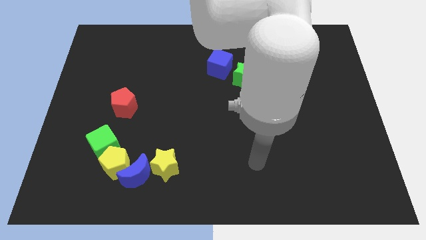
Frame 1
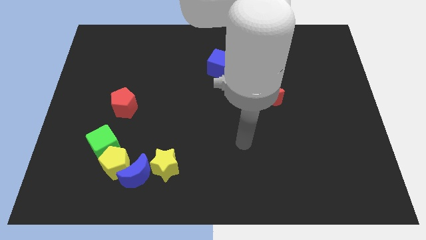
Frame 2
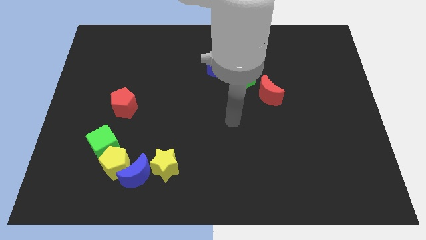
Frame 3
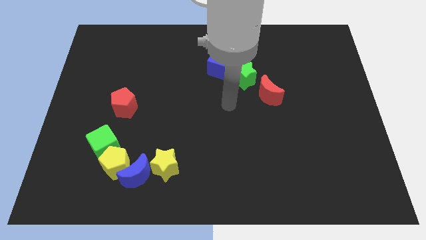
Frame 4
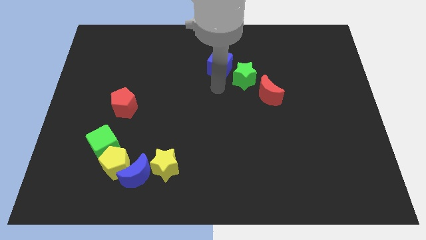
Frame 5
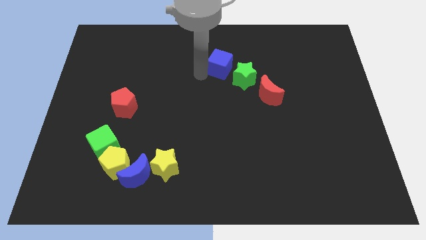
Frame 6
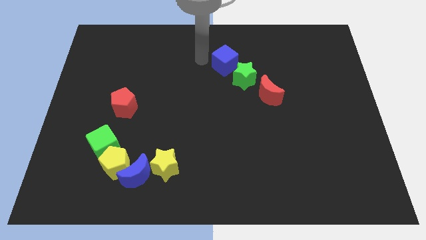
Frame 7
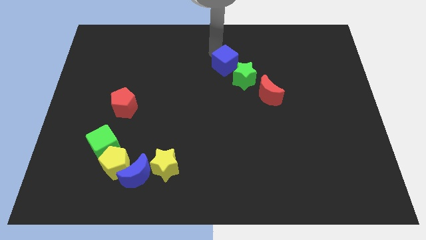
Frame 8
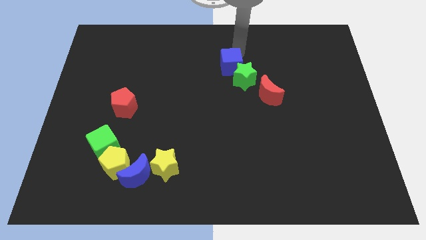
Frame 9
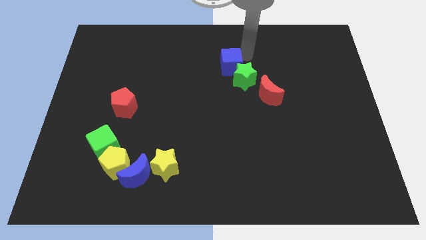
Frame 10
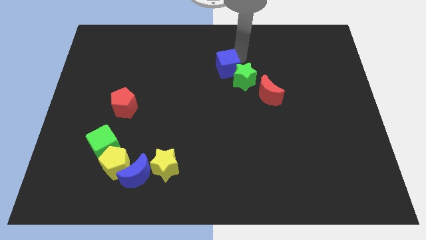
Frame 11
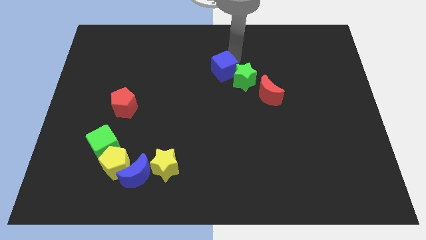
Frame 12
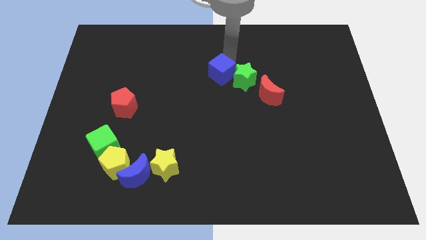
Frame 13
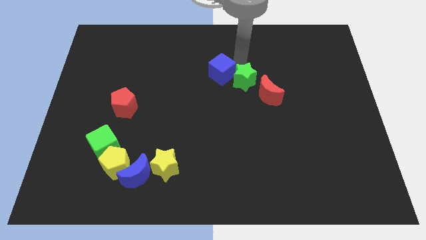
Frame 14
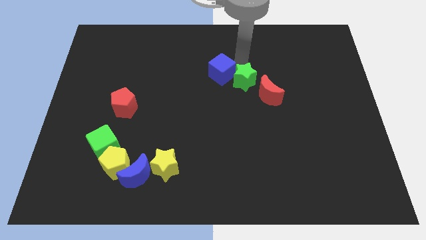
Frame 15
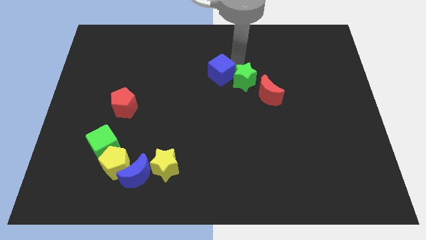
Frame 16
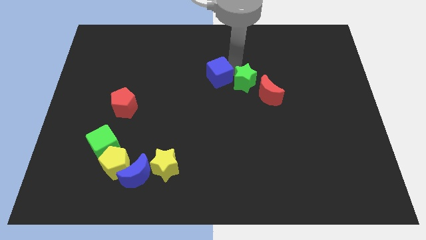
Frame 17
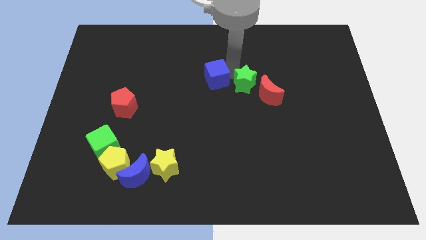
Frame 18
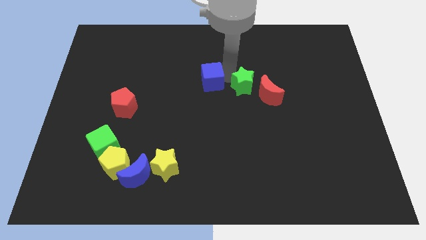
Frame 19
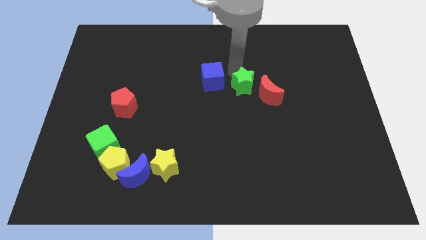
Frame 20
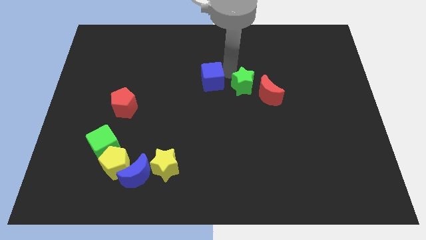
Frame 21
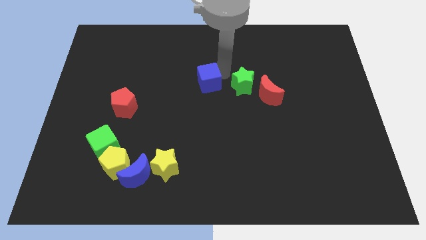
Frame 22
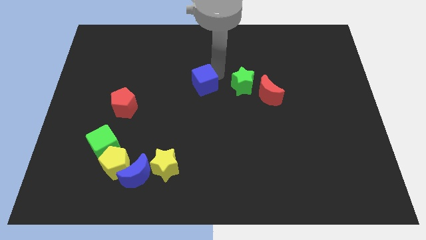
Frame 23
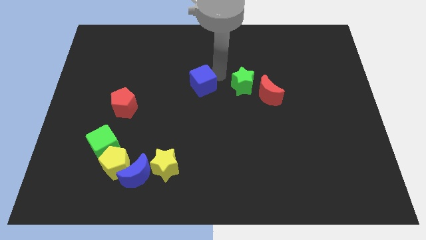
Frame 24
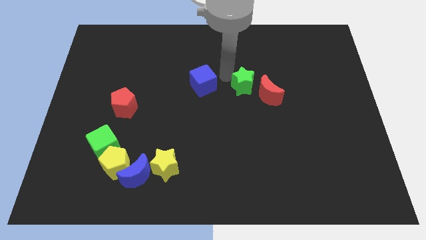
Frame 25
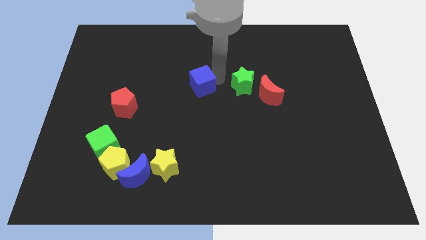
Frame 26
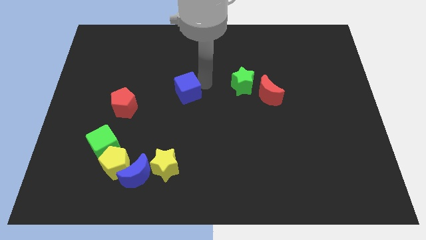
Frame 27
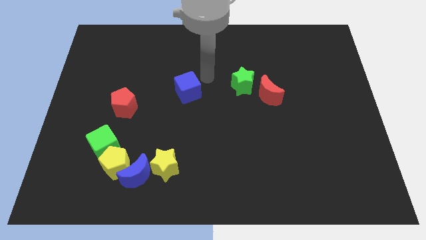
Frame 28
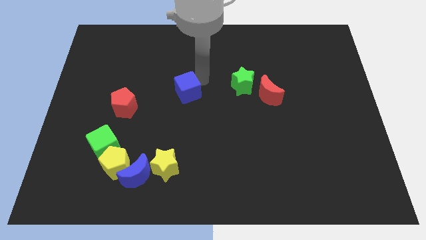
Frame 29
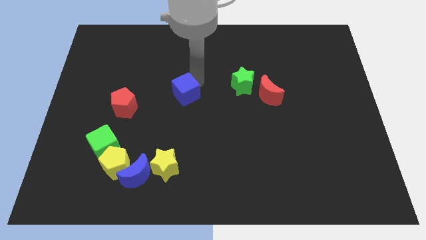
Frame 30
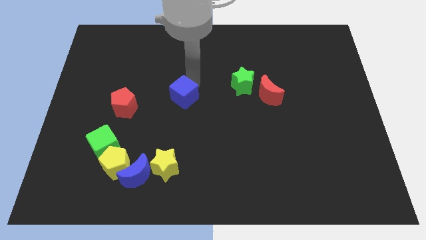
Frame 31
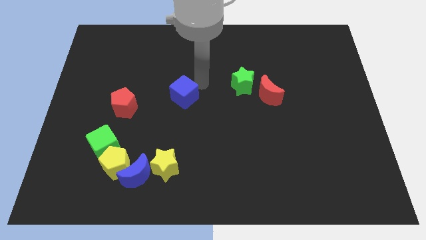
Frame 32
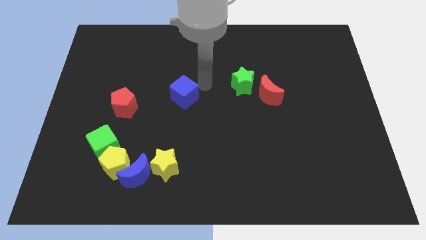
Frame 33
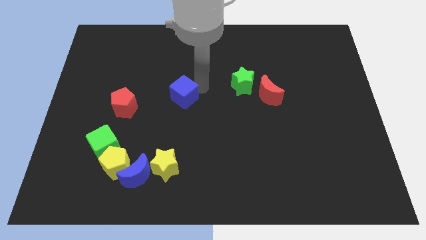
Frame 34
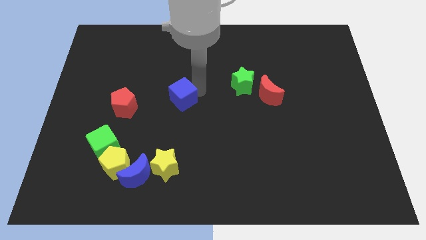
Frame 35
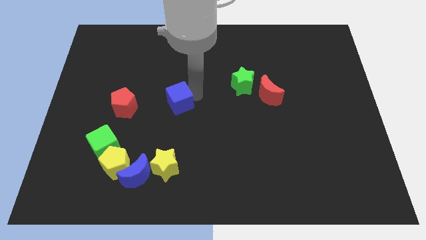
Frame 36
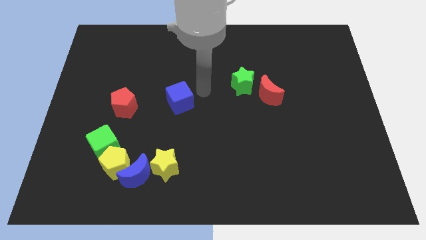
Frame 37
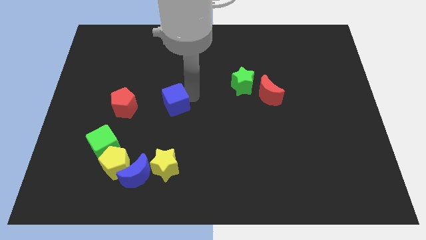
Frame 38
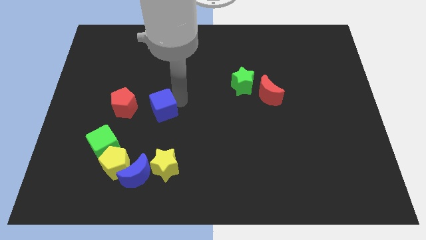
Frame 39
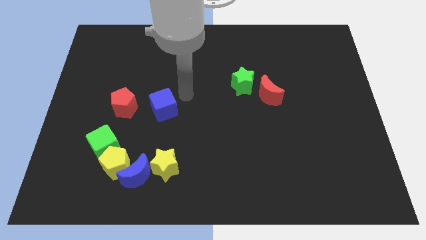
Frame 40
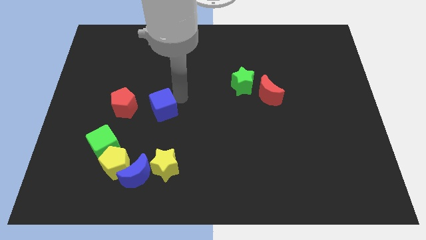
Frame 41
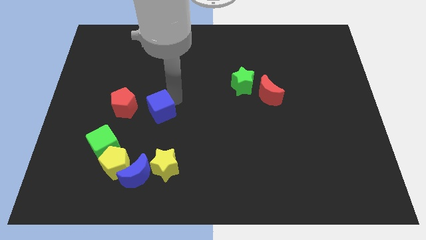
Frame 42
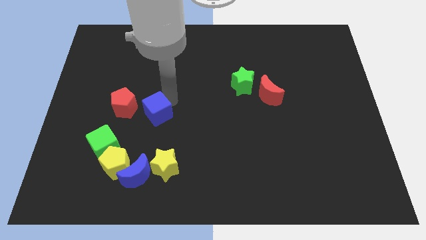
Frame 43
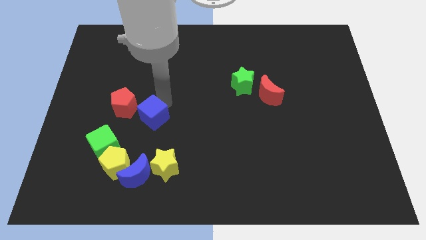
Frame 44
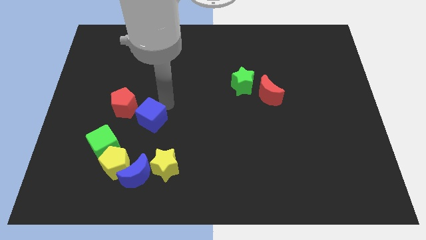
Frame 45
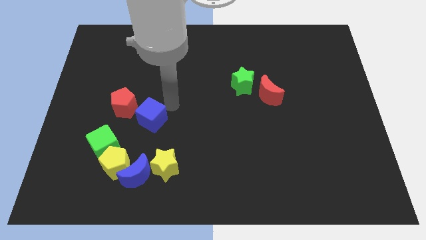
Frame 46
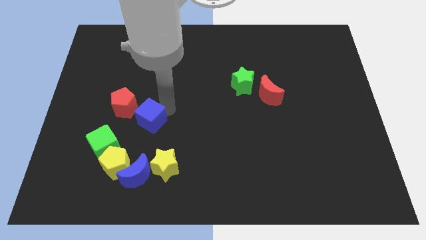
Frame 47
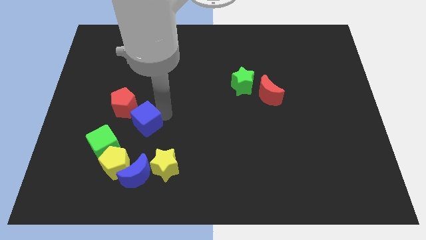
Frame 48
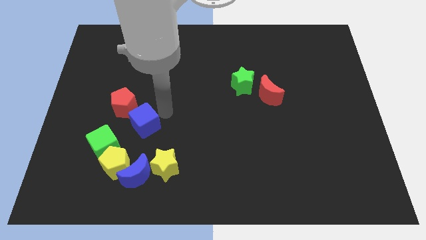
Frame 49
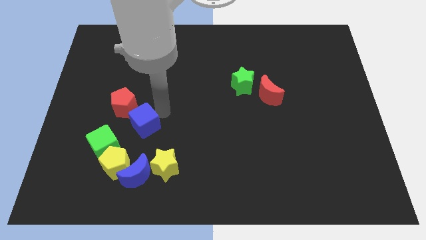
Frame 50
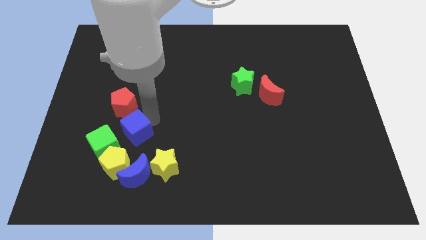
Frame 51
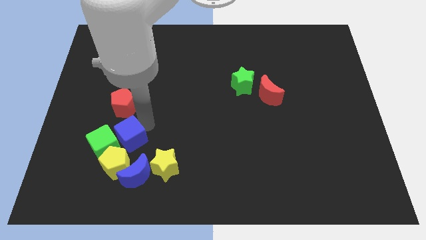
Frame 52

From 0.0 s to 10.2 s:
move the blue cube next to the green cube

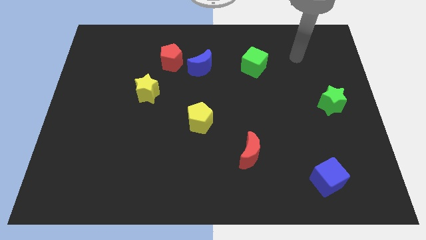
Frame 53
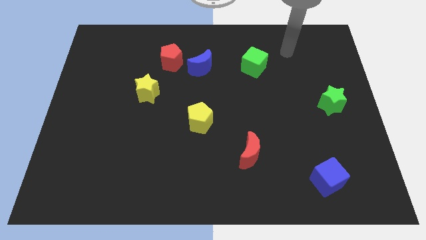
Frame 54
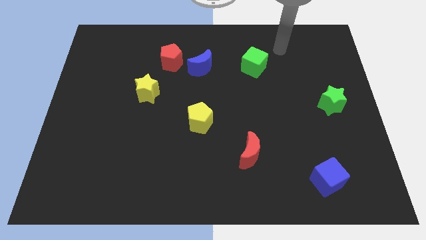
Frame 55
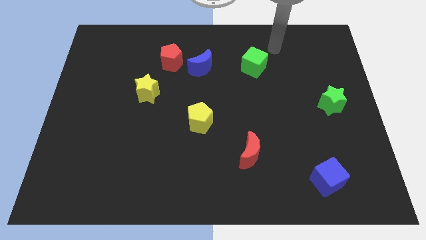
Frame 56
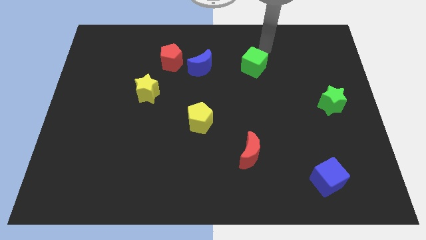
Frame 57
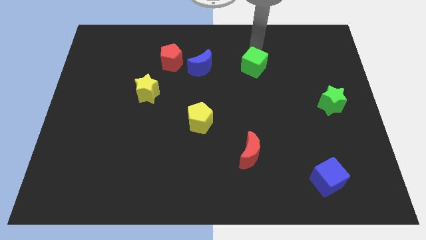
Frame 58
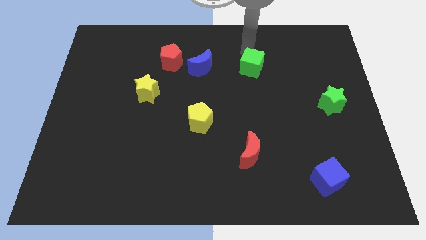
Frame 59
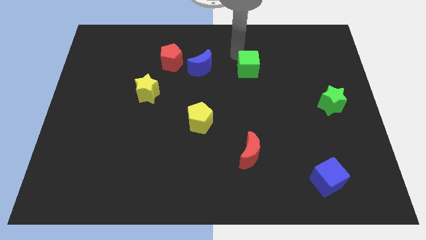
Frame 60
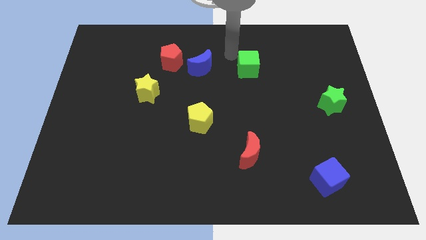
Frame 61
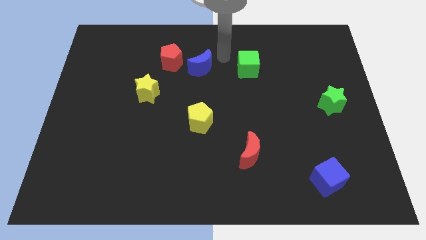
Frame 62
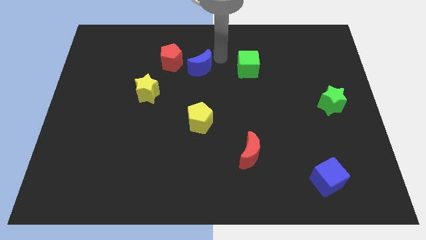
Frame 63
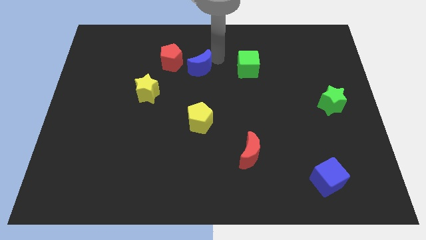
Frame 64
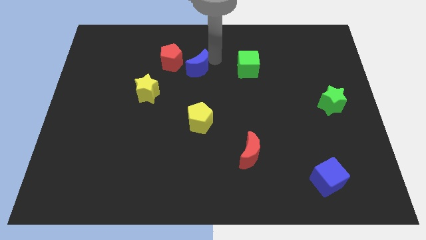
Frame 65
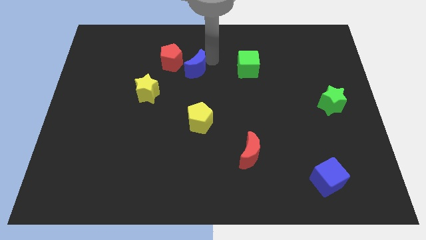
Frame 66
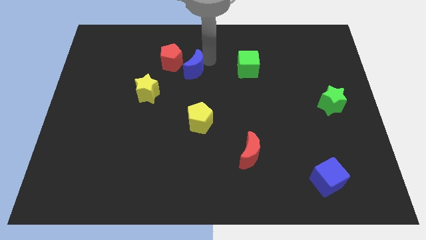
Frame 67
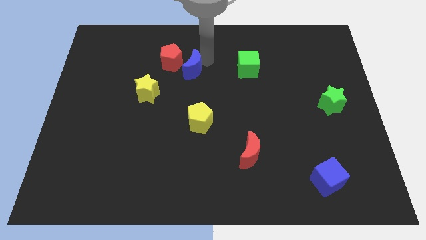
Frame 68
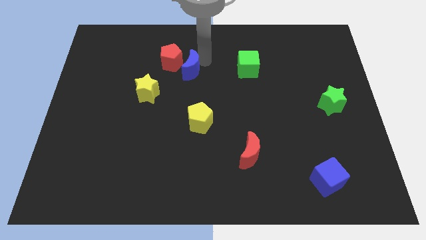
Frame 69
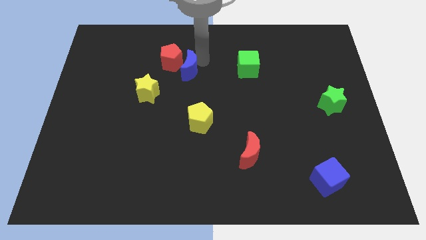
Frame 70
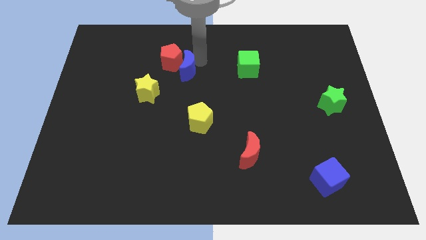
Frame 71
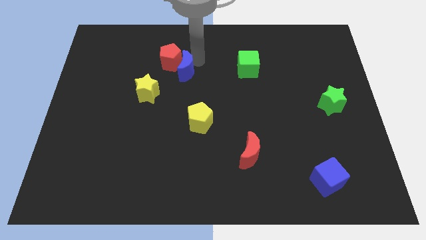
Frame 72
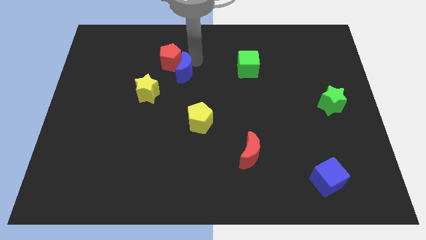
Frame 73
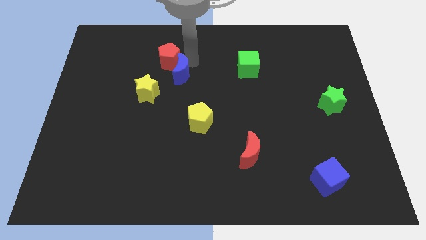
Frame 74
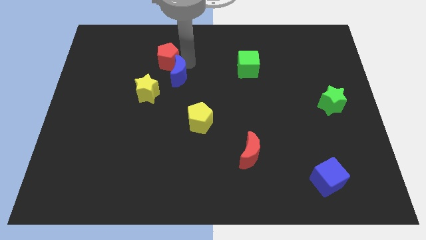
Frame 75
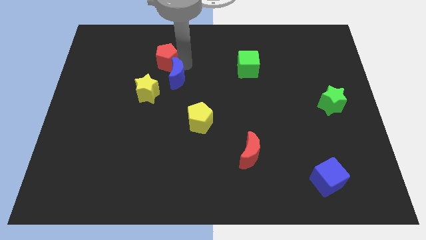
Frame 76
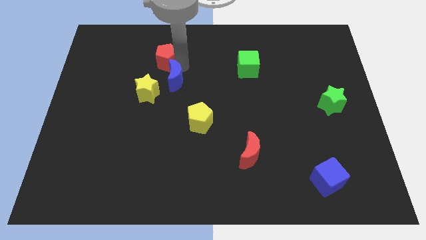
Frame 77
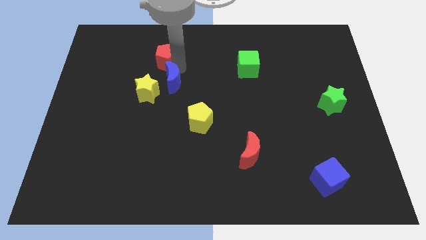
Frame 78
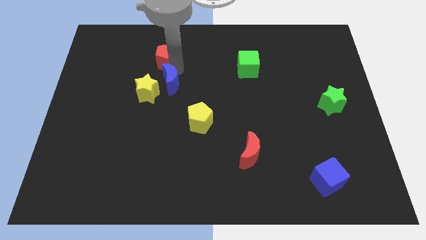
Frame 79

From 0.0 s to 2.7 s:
push the blue moon close to the yellow star

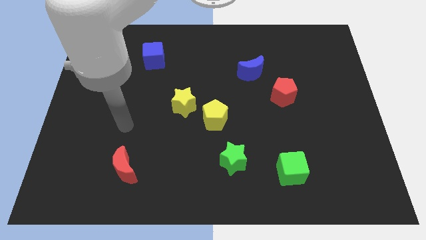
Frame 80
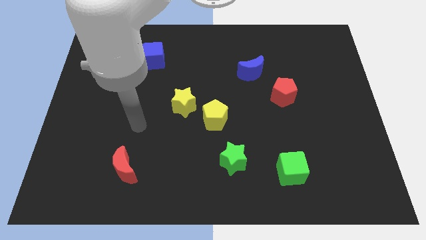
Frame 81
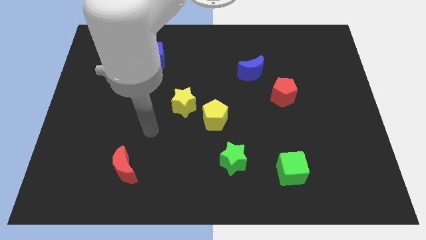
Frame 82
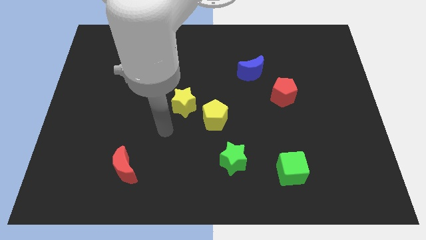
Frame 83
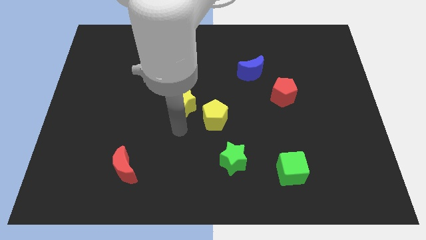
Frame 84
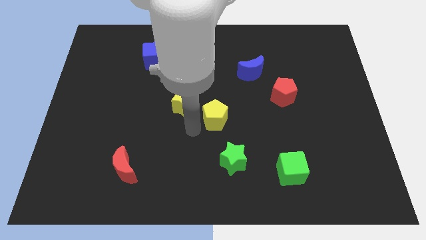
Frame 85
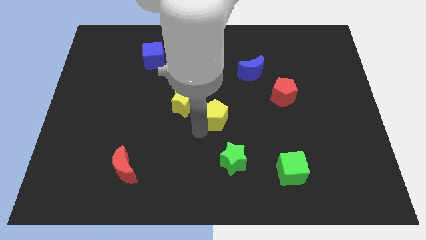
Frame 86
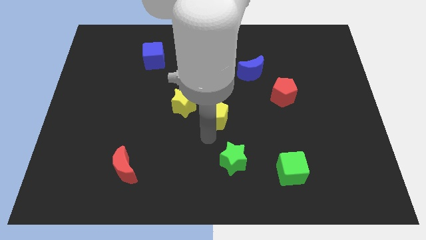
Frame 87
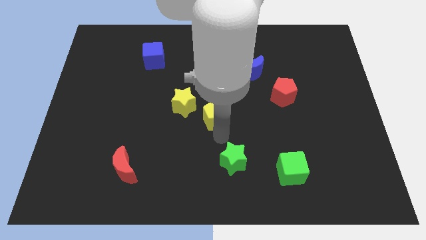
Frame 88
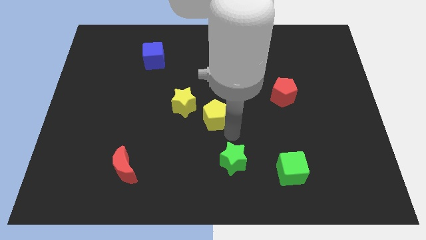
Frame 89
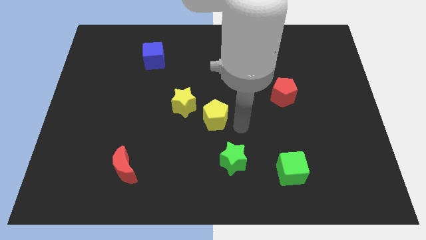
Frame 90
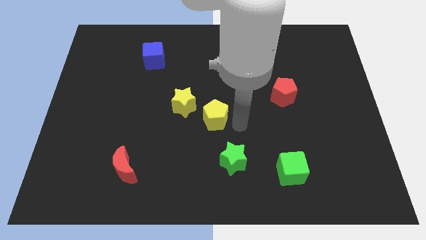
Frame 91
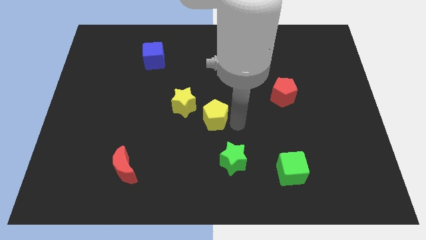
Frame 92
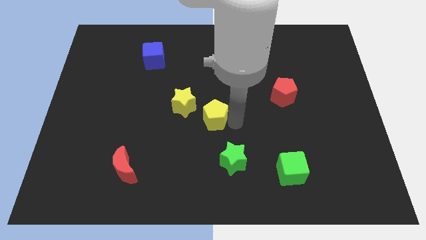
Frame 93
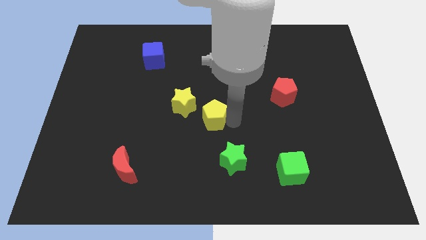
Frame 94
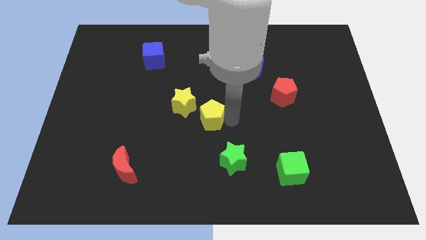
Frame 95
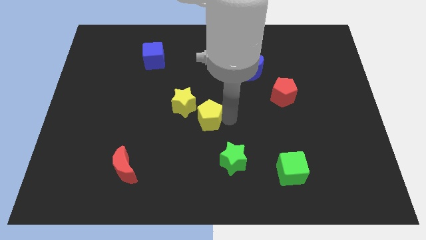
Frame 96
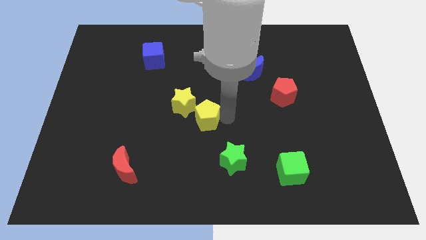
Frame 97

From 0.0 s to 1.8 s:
put the yellow pentagon close to the yellow star
